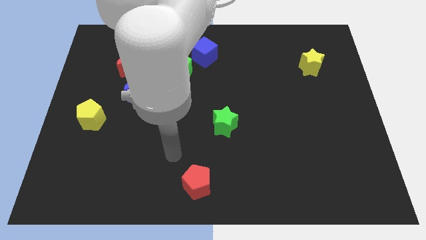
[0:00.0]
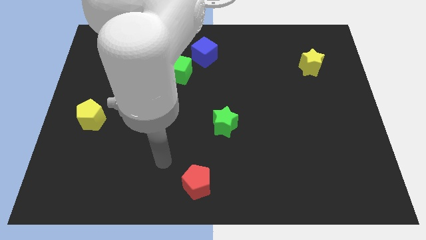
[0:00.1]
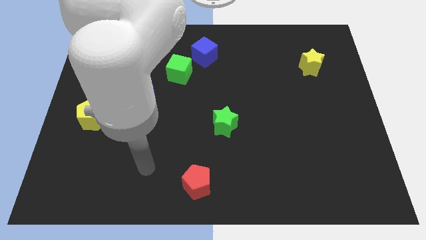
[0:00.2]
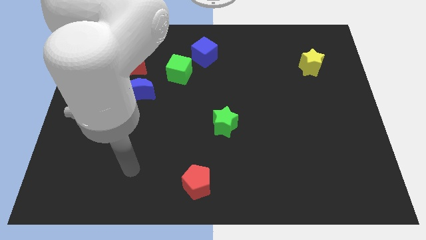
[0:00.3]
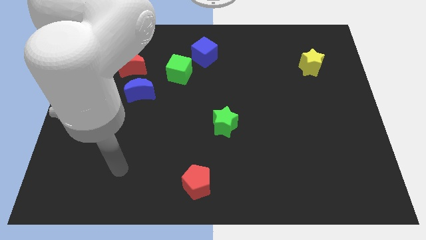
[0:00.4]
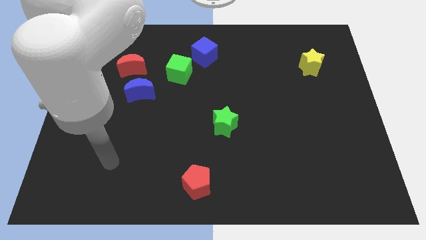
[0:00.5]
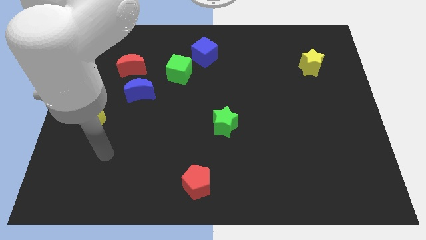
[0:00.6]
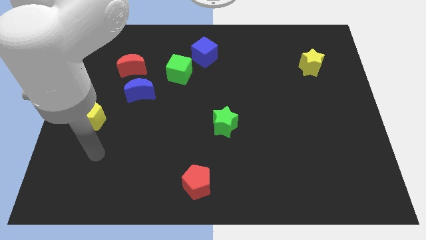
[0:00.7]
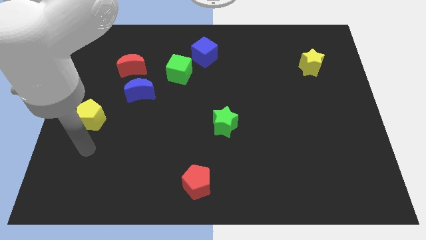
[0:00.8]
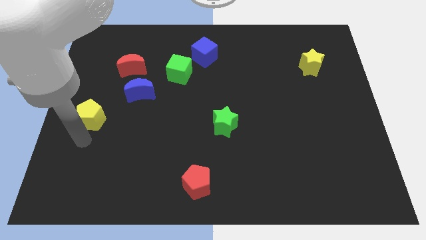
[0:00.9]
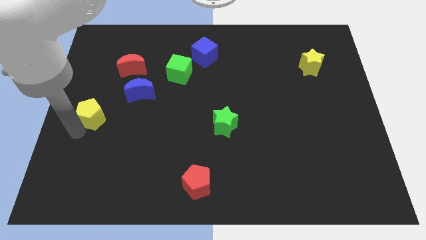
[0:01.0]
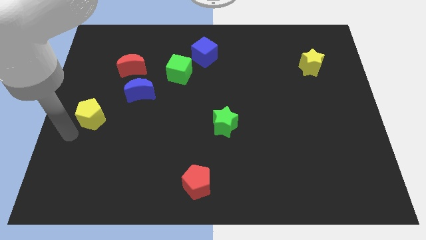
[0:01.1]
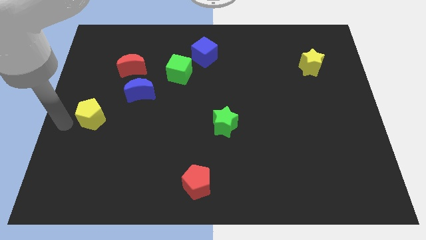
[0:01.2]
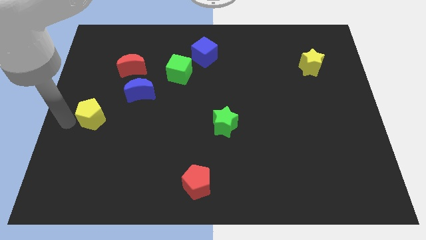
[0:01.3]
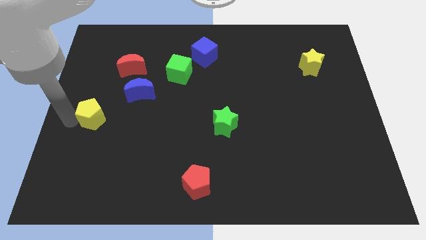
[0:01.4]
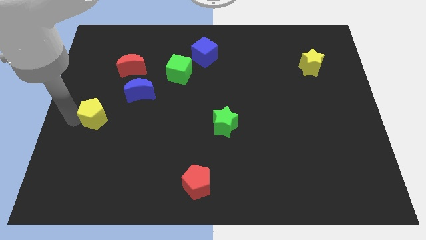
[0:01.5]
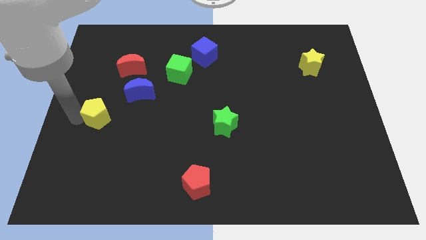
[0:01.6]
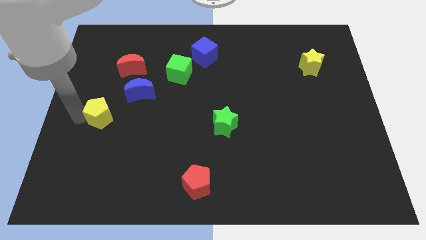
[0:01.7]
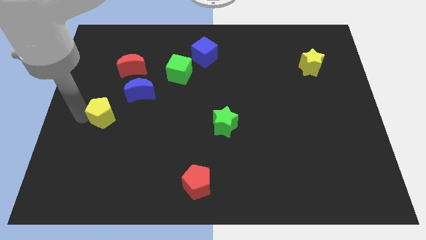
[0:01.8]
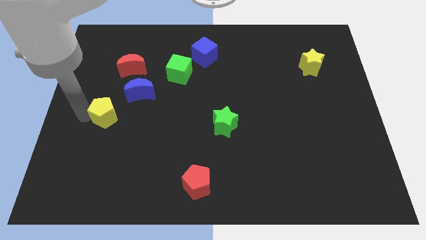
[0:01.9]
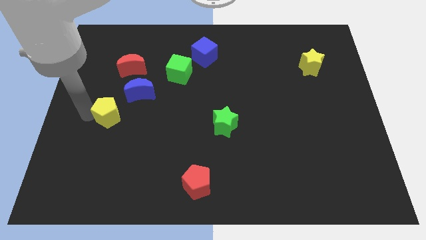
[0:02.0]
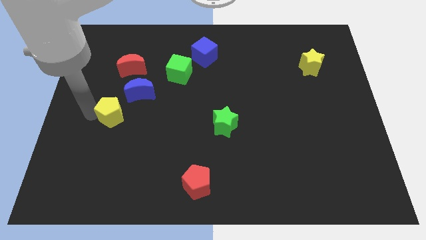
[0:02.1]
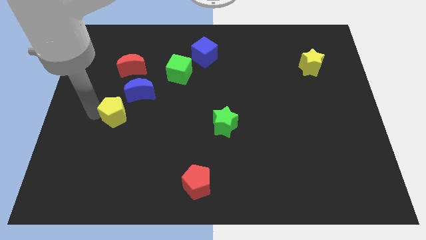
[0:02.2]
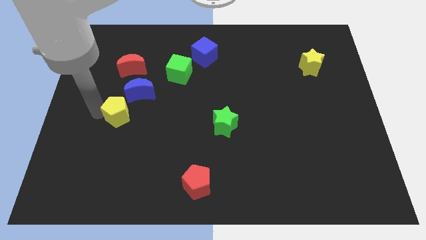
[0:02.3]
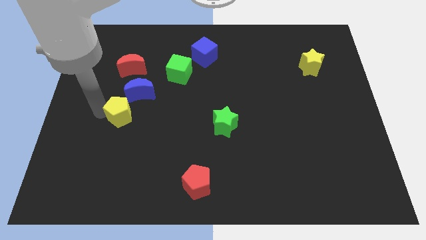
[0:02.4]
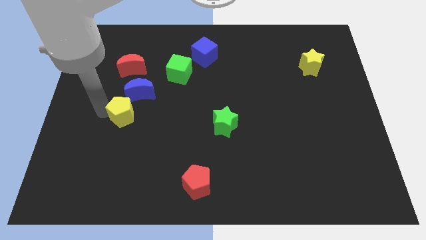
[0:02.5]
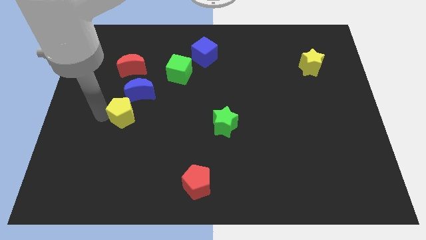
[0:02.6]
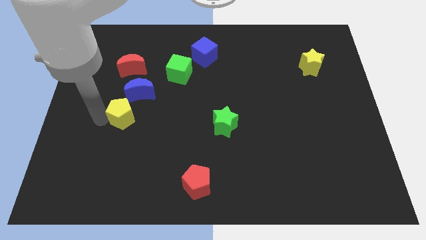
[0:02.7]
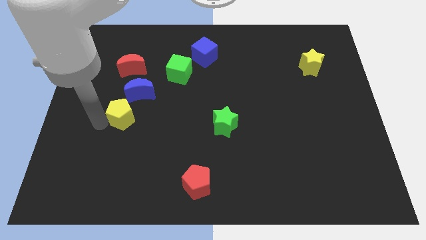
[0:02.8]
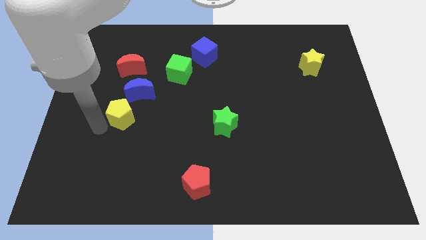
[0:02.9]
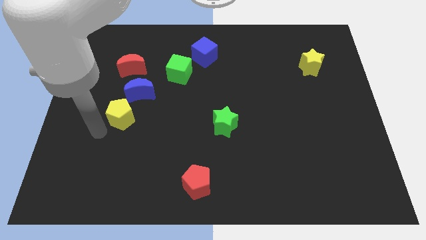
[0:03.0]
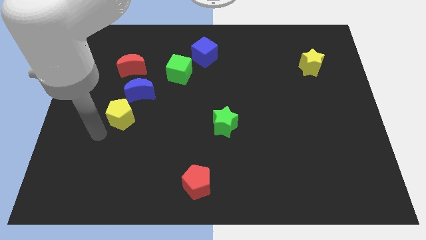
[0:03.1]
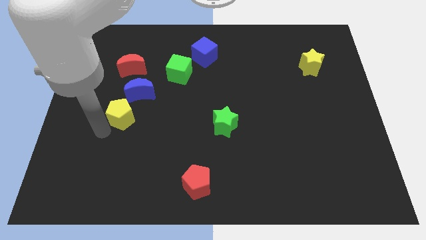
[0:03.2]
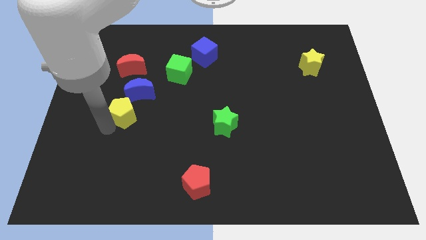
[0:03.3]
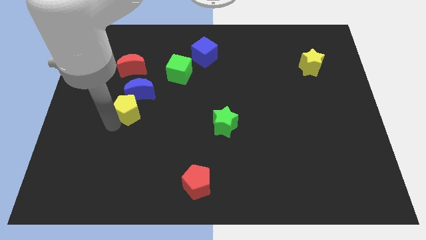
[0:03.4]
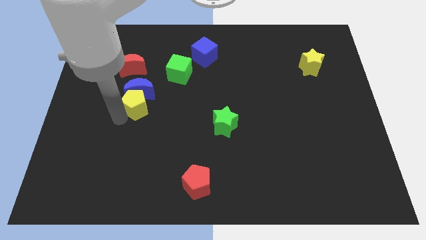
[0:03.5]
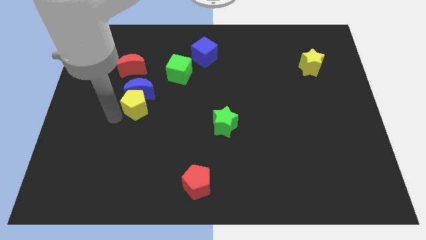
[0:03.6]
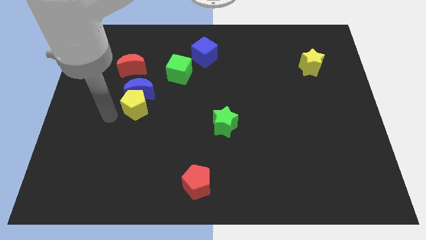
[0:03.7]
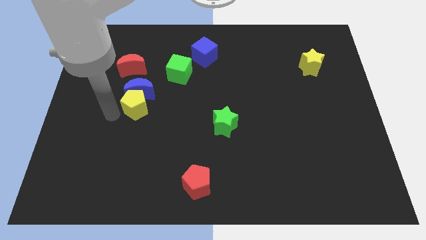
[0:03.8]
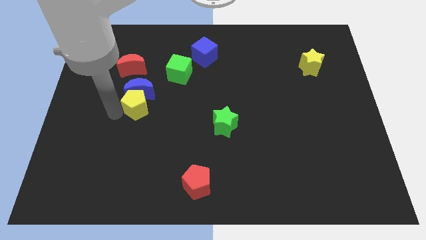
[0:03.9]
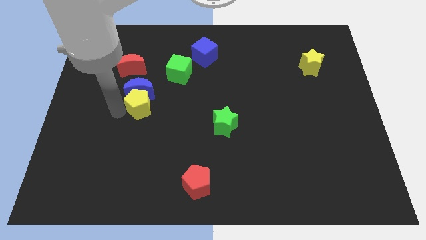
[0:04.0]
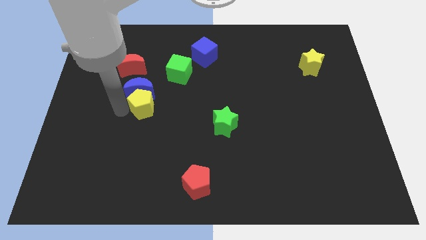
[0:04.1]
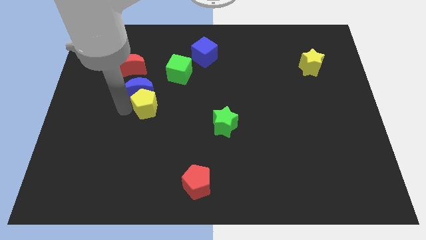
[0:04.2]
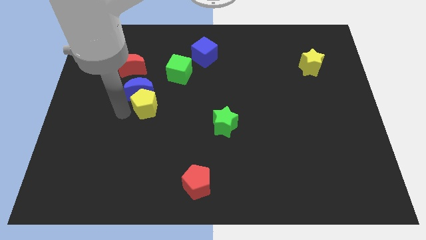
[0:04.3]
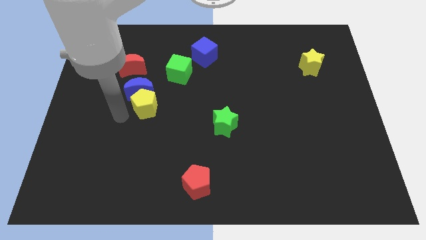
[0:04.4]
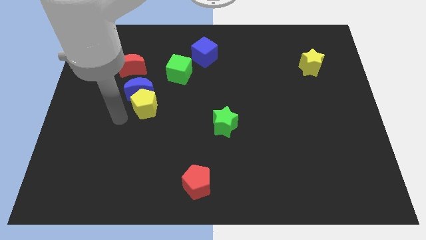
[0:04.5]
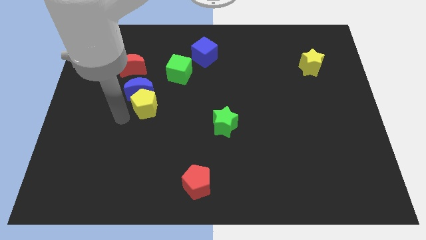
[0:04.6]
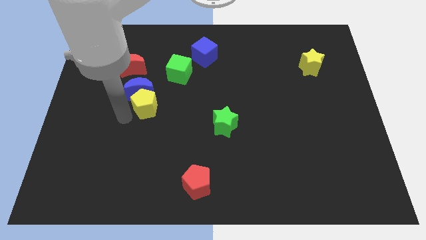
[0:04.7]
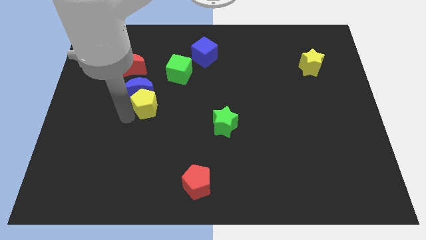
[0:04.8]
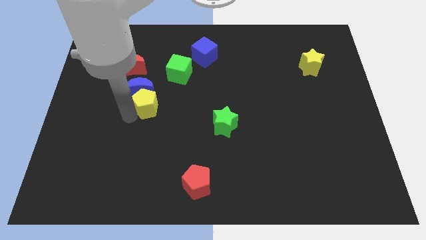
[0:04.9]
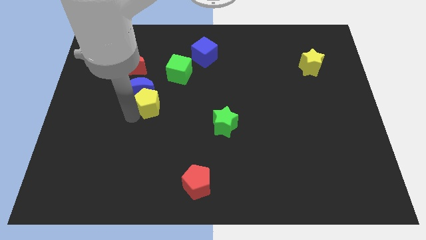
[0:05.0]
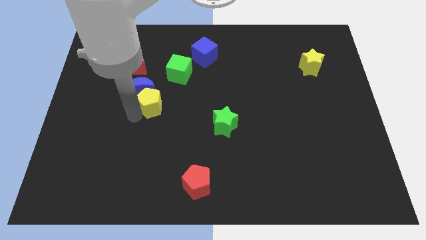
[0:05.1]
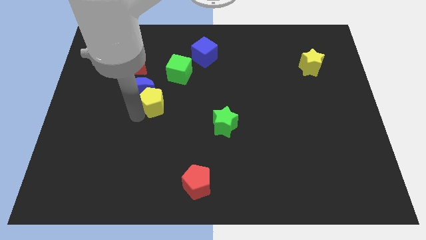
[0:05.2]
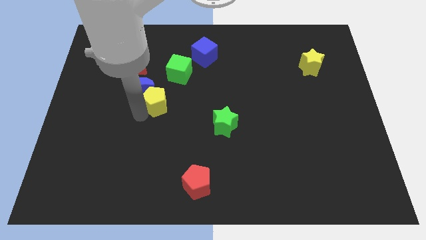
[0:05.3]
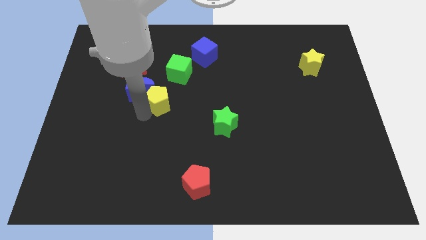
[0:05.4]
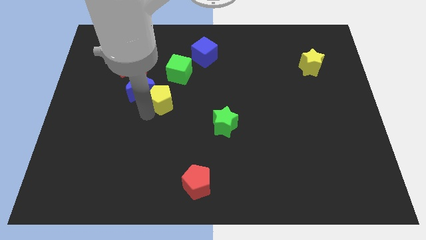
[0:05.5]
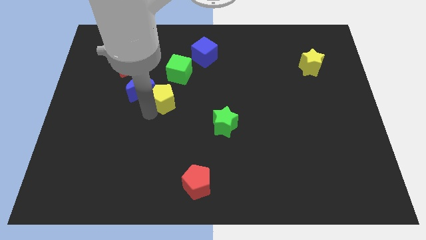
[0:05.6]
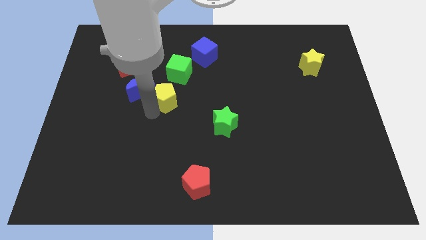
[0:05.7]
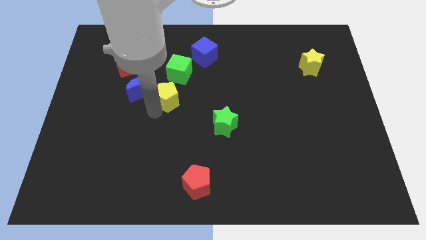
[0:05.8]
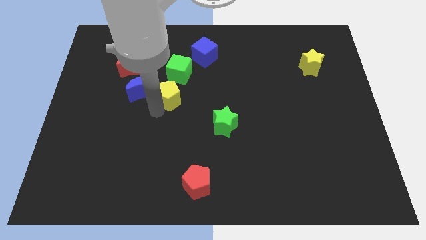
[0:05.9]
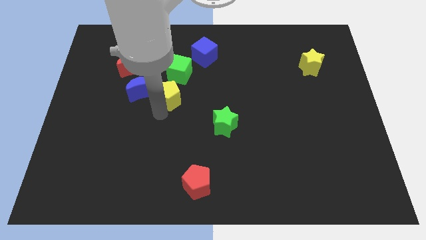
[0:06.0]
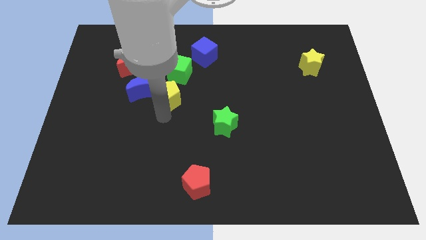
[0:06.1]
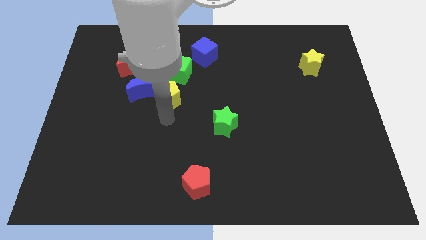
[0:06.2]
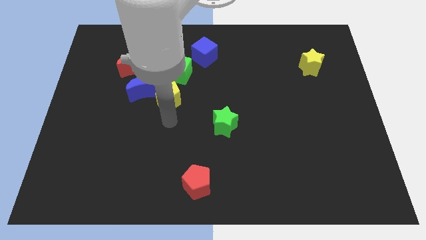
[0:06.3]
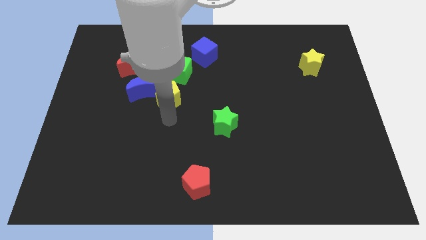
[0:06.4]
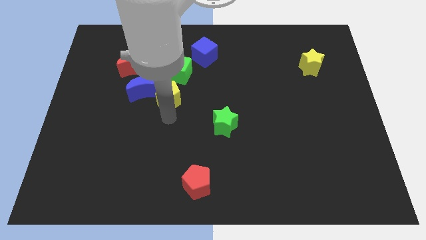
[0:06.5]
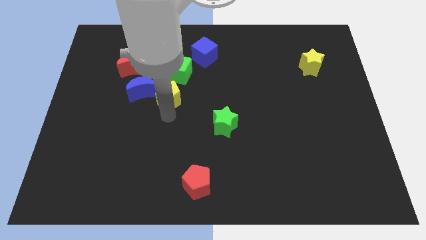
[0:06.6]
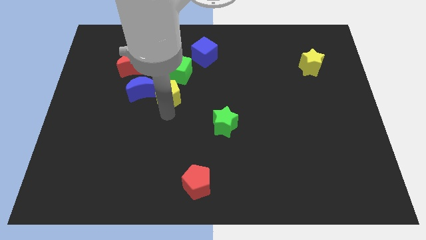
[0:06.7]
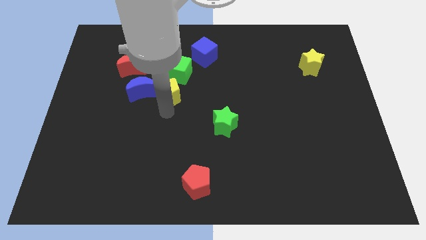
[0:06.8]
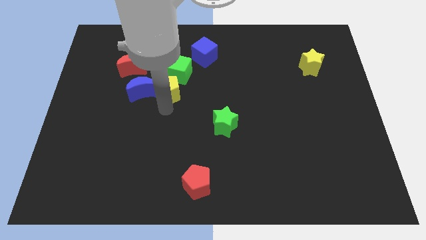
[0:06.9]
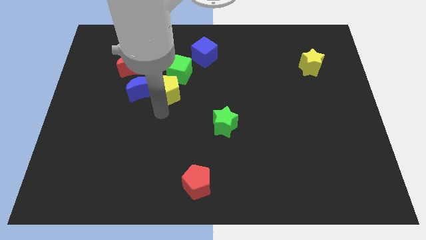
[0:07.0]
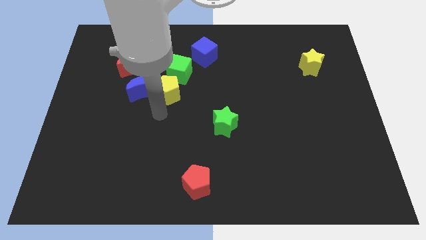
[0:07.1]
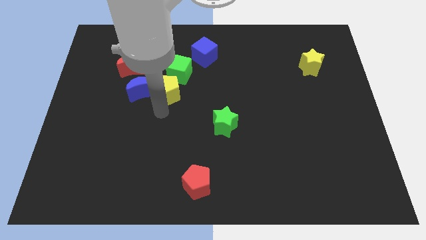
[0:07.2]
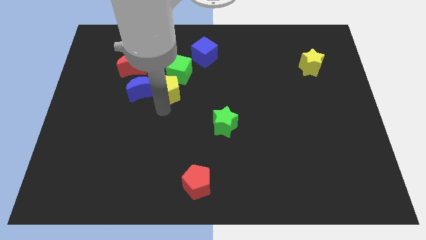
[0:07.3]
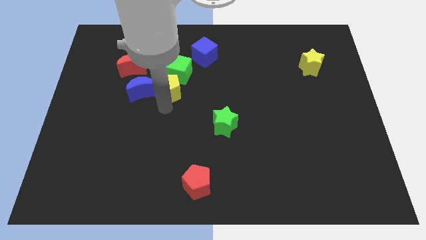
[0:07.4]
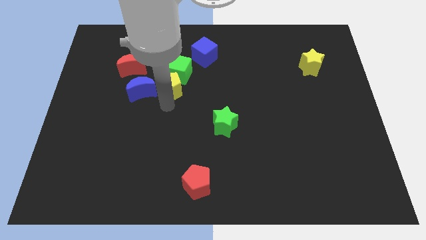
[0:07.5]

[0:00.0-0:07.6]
push the yellow pentagon next to the green cube
